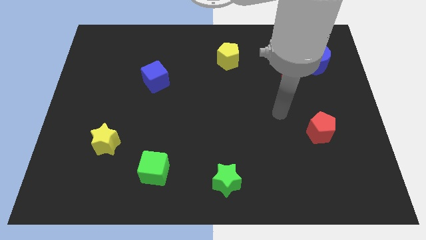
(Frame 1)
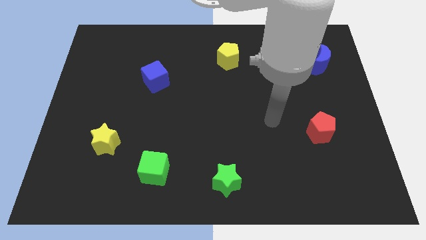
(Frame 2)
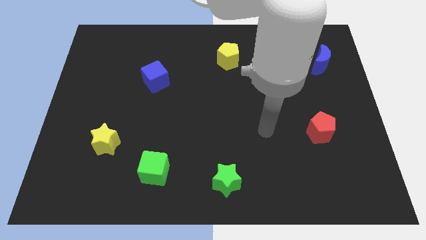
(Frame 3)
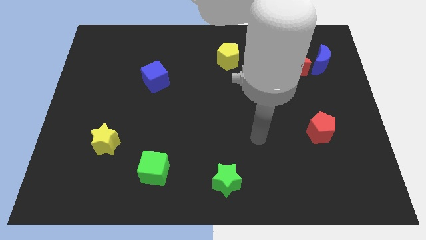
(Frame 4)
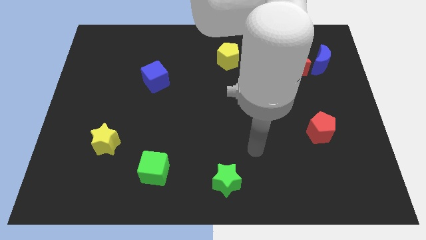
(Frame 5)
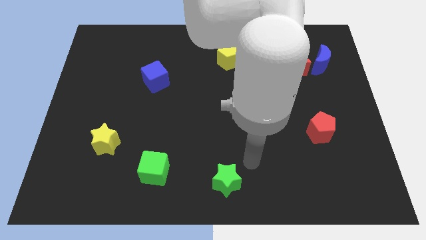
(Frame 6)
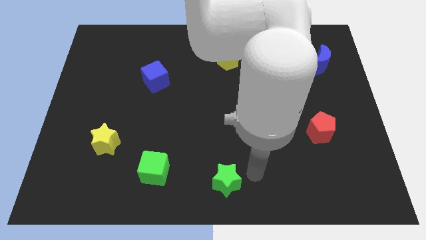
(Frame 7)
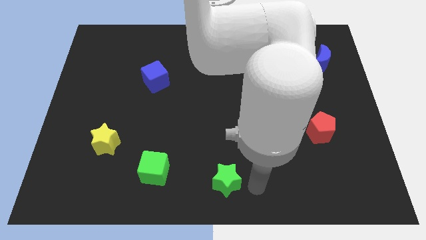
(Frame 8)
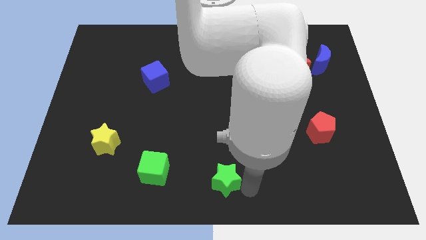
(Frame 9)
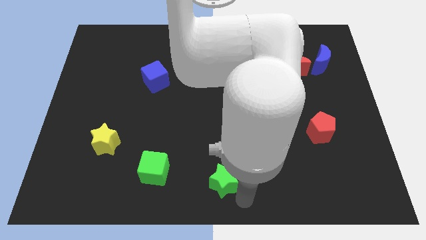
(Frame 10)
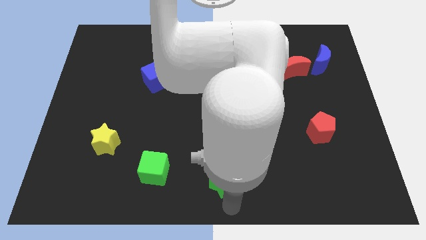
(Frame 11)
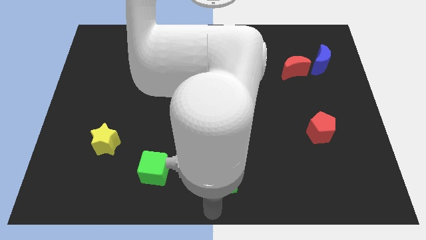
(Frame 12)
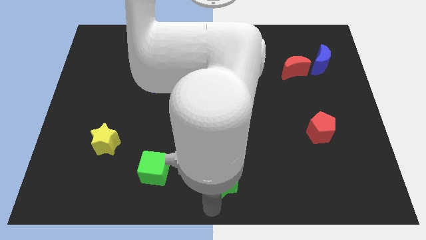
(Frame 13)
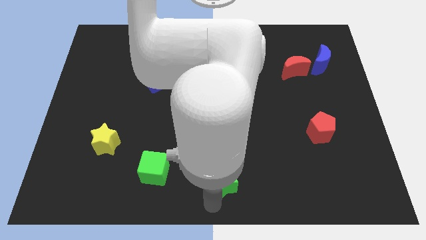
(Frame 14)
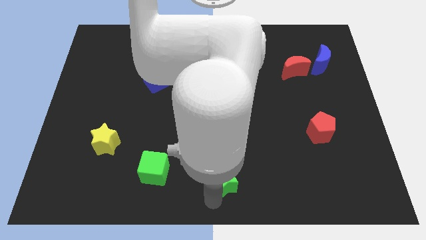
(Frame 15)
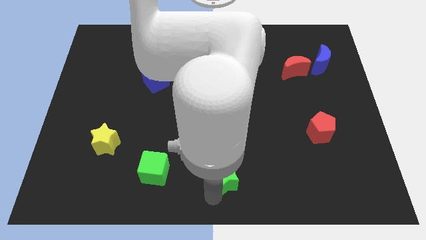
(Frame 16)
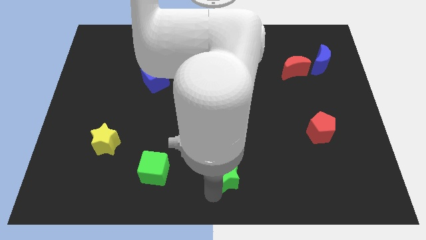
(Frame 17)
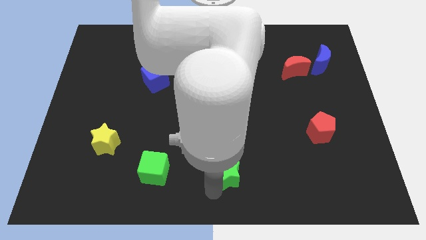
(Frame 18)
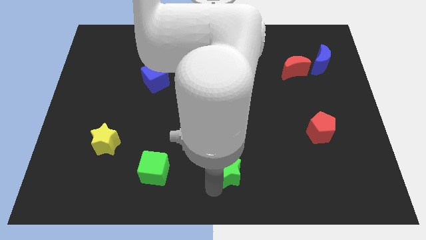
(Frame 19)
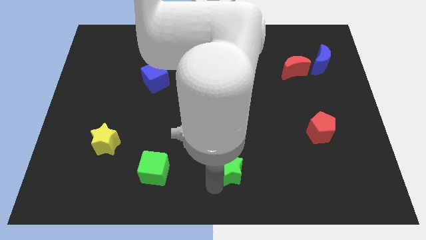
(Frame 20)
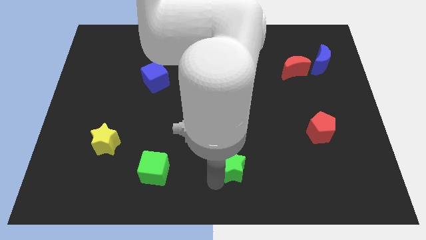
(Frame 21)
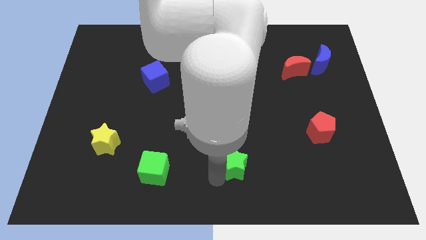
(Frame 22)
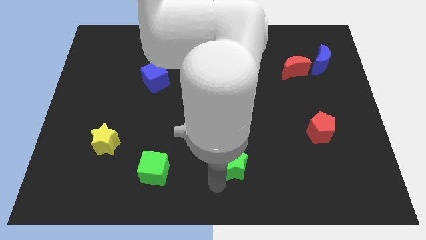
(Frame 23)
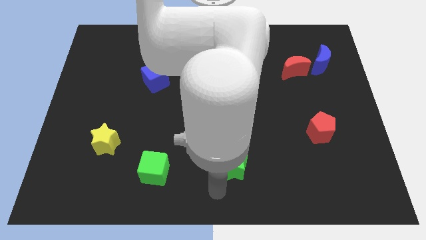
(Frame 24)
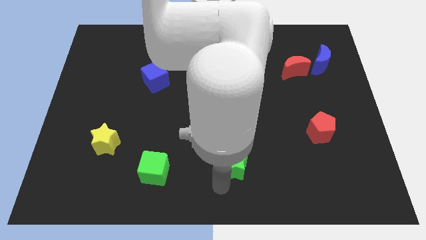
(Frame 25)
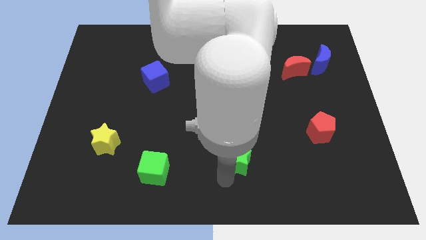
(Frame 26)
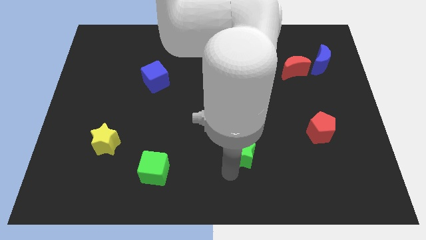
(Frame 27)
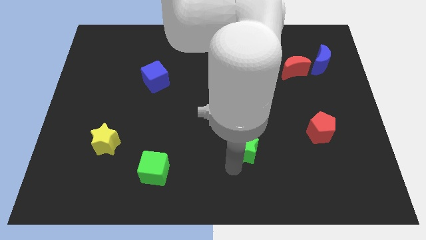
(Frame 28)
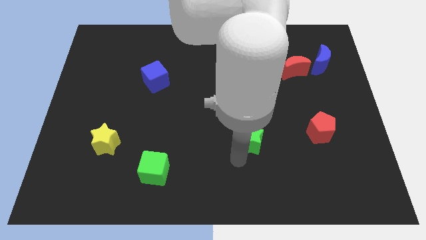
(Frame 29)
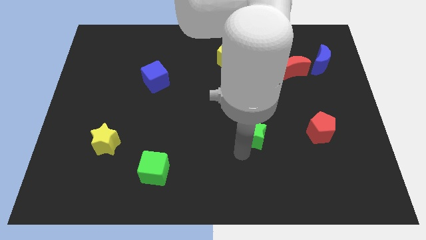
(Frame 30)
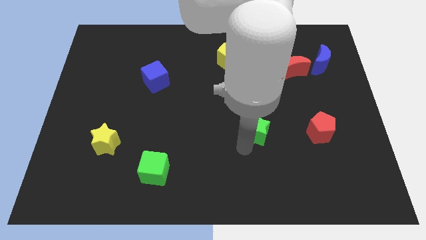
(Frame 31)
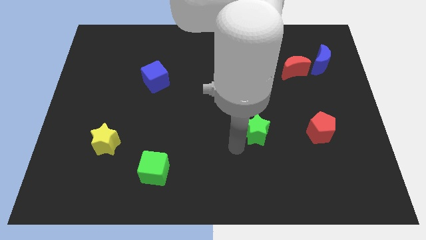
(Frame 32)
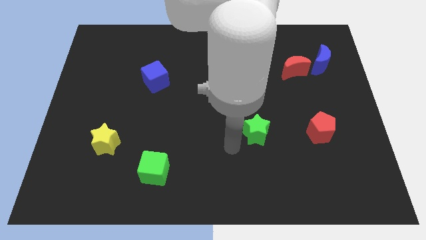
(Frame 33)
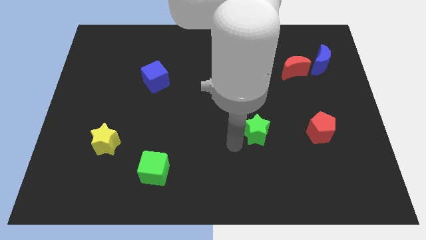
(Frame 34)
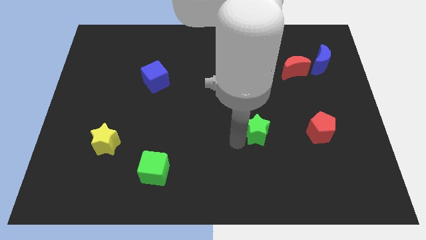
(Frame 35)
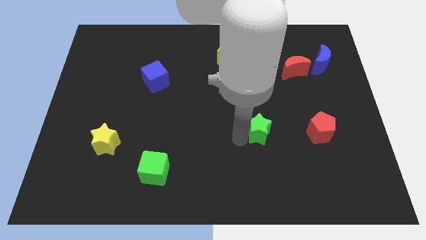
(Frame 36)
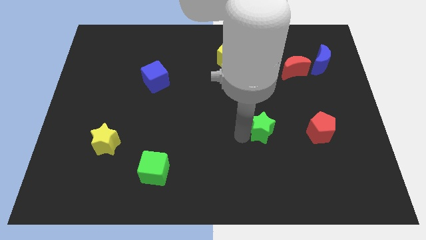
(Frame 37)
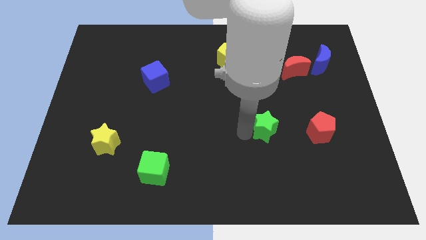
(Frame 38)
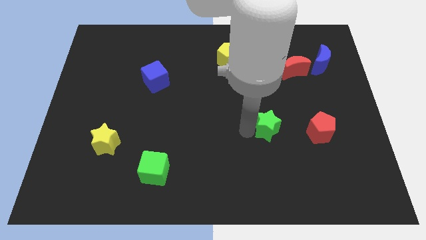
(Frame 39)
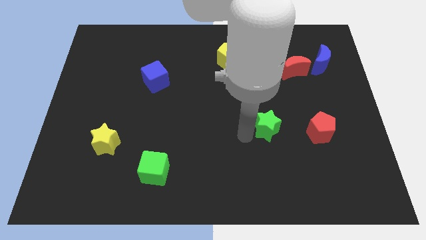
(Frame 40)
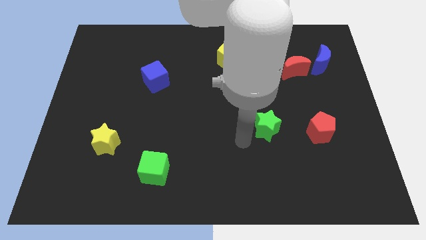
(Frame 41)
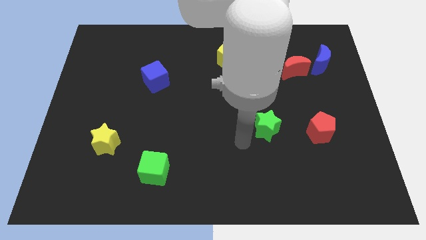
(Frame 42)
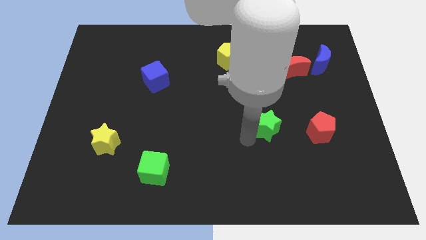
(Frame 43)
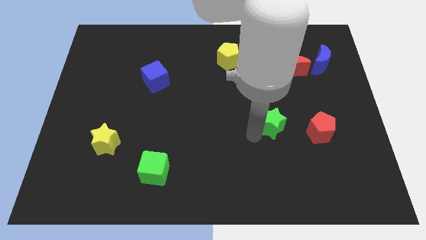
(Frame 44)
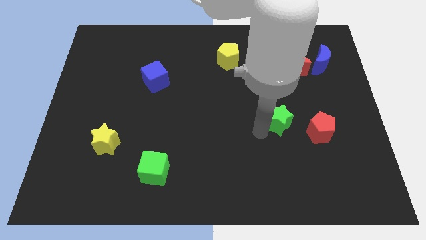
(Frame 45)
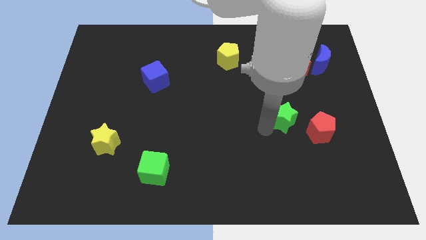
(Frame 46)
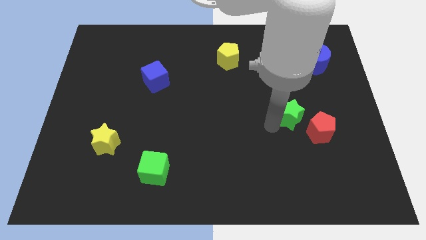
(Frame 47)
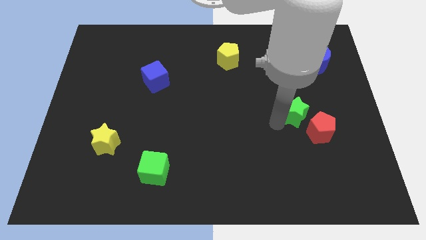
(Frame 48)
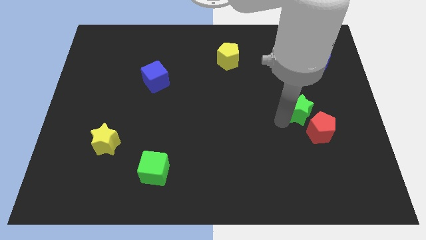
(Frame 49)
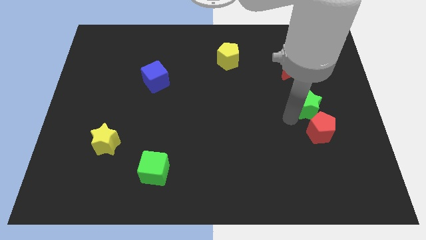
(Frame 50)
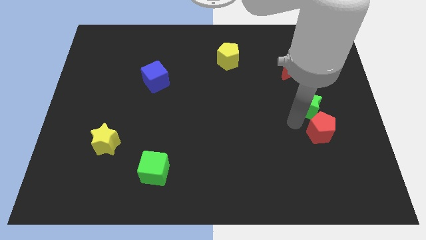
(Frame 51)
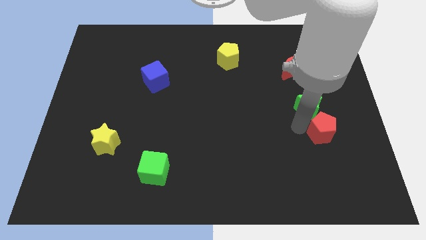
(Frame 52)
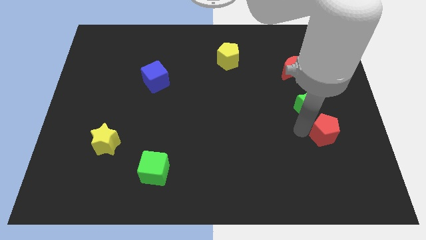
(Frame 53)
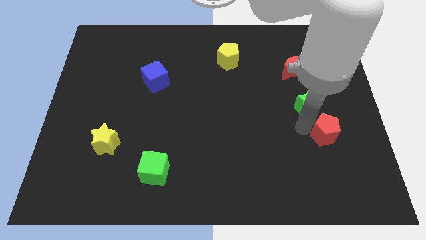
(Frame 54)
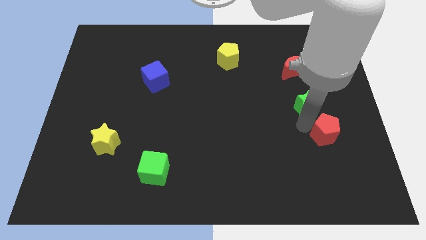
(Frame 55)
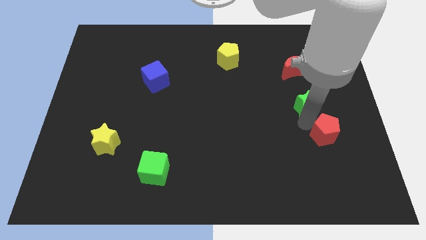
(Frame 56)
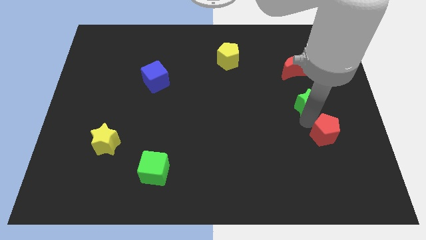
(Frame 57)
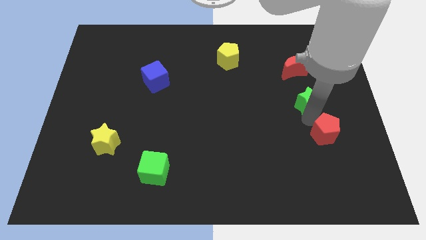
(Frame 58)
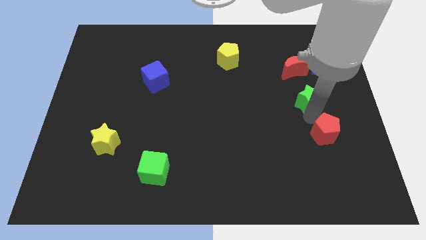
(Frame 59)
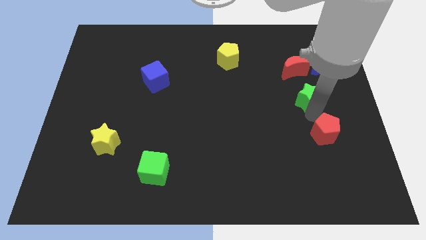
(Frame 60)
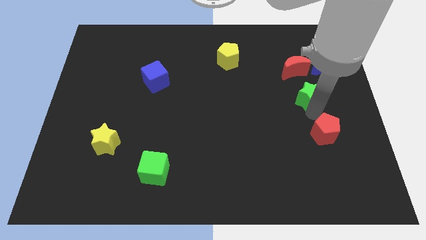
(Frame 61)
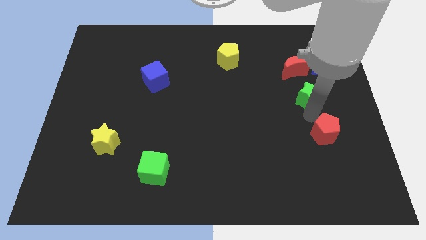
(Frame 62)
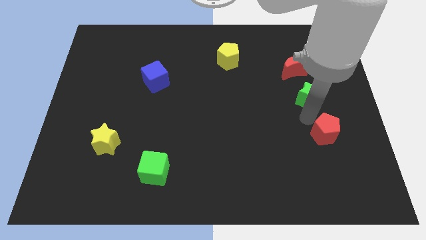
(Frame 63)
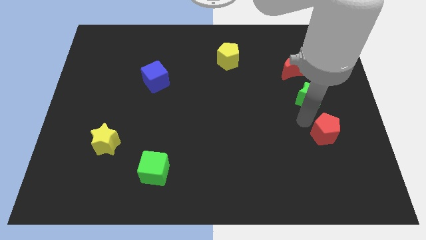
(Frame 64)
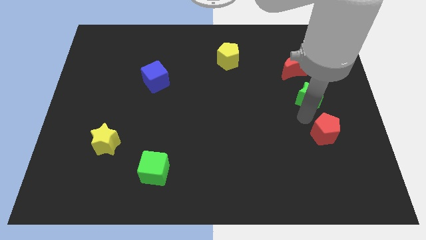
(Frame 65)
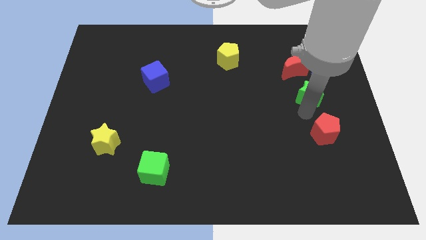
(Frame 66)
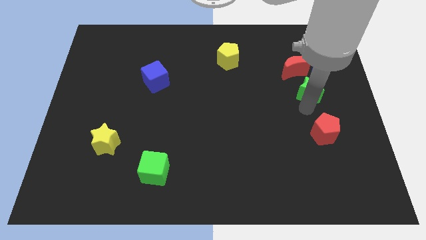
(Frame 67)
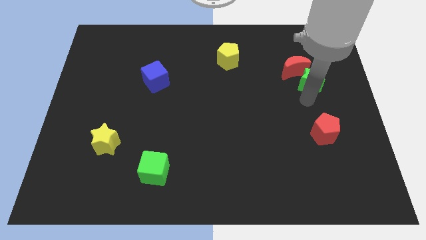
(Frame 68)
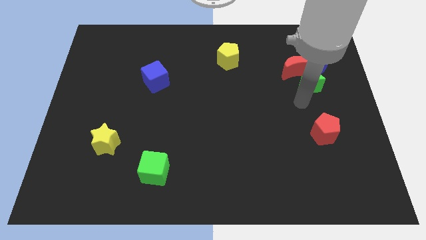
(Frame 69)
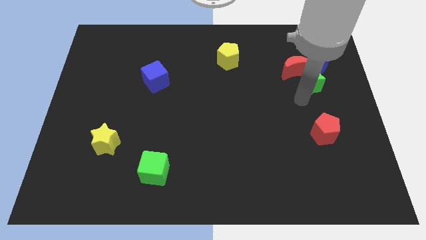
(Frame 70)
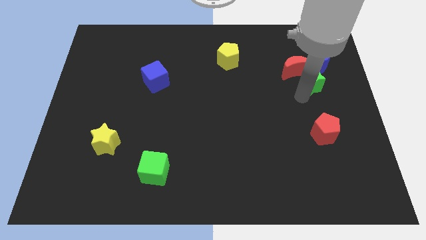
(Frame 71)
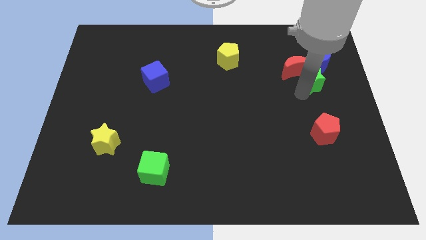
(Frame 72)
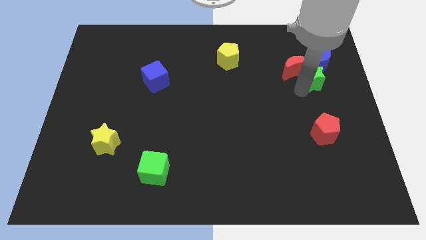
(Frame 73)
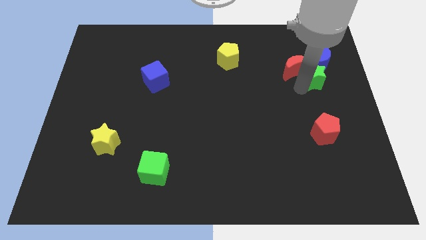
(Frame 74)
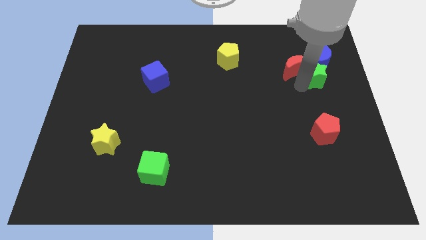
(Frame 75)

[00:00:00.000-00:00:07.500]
move the green star close to the blue moon
